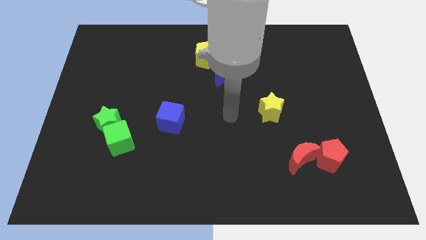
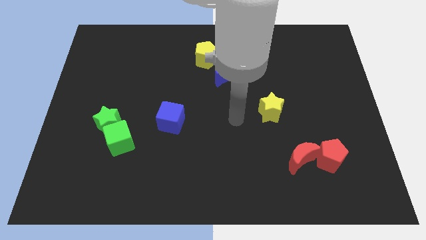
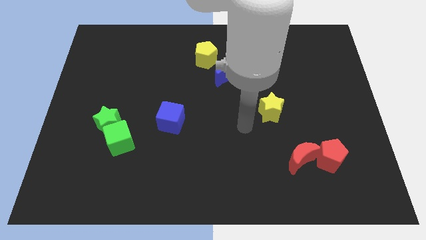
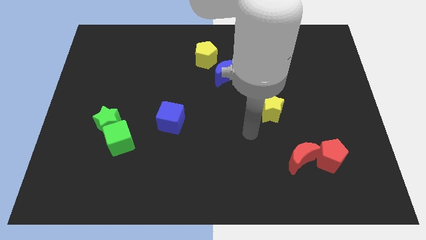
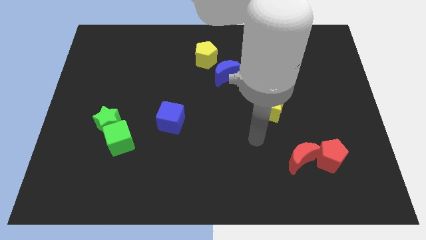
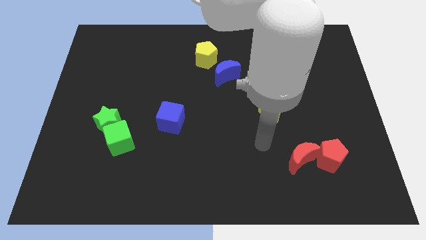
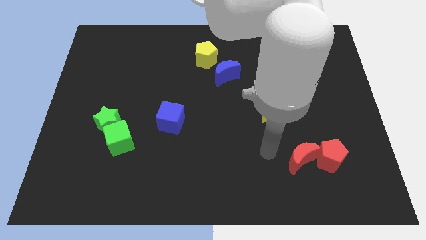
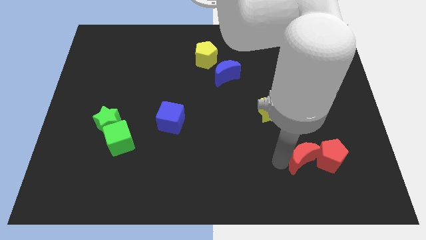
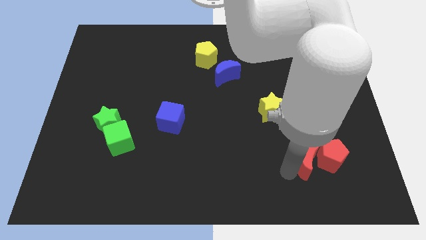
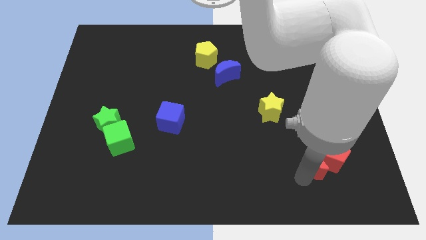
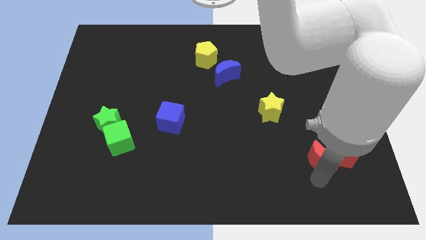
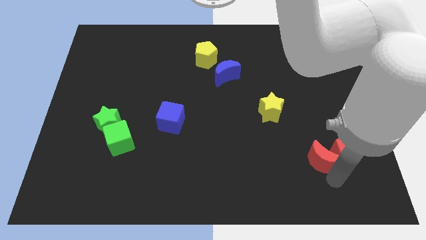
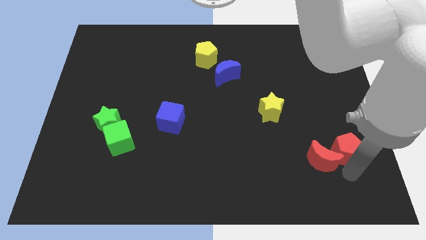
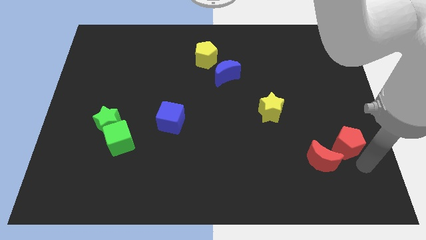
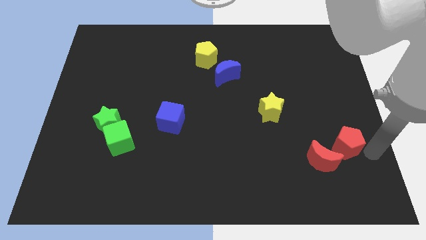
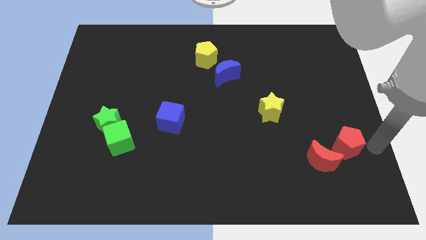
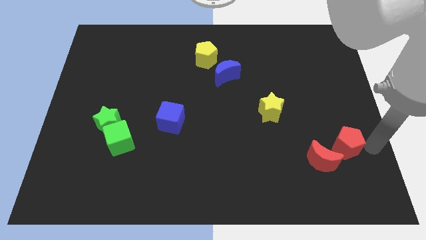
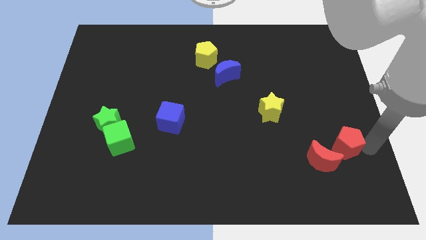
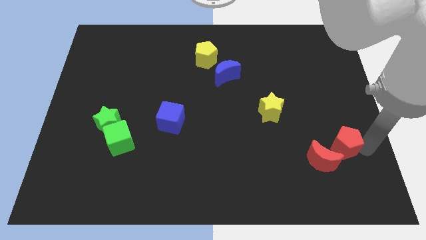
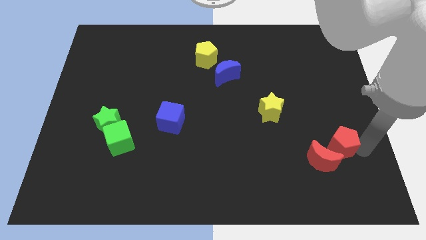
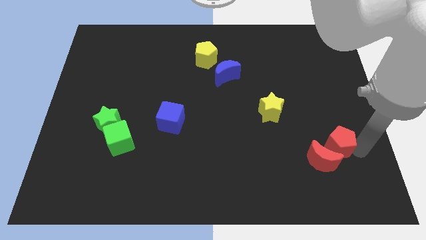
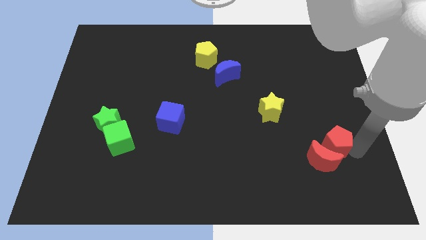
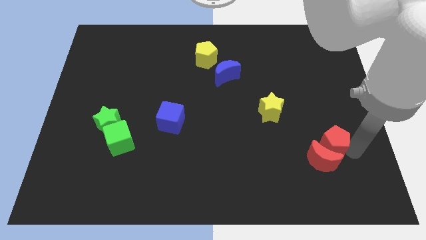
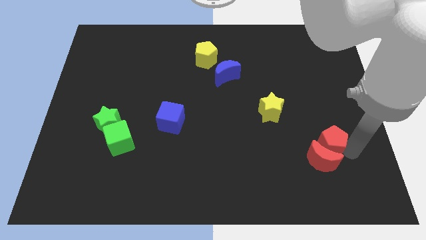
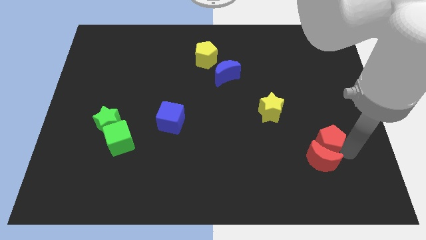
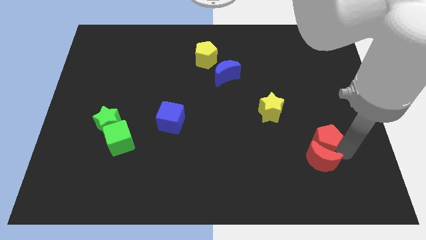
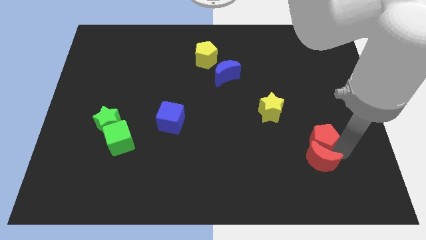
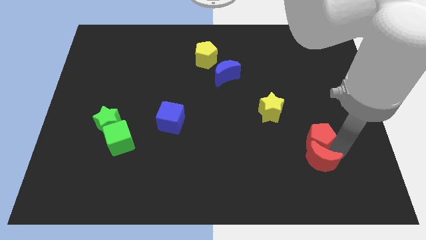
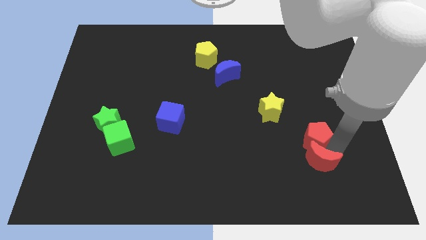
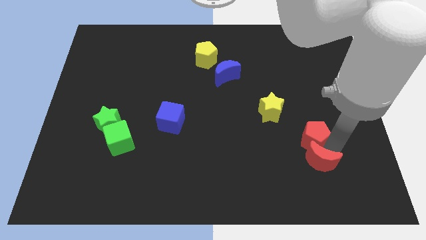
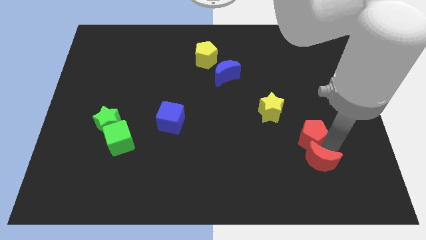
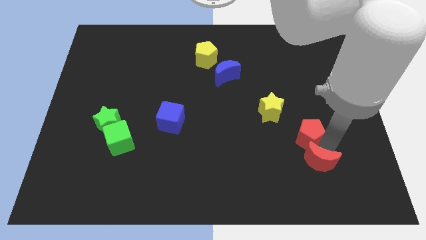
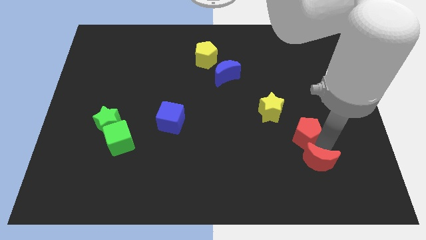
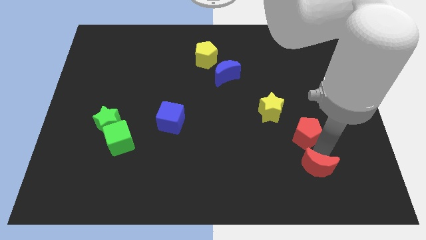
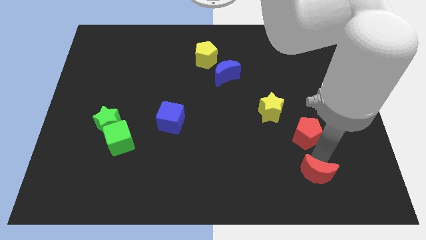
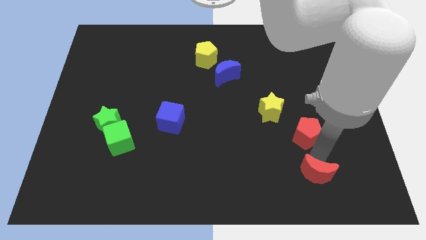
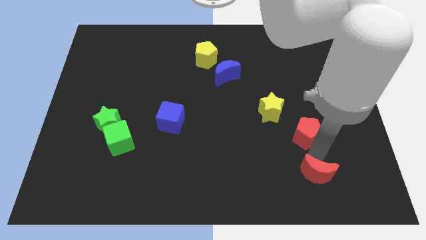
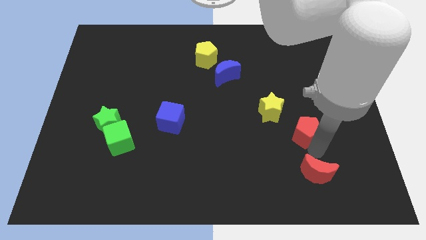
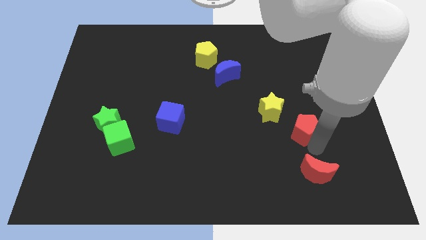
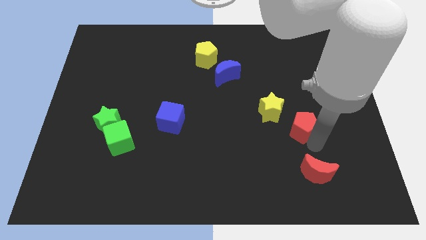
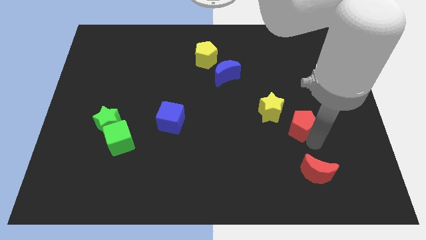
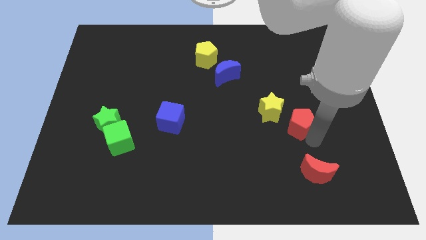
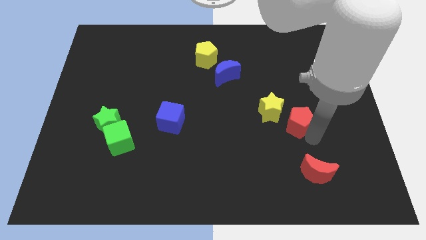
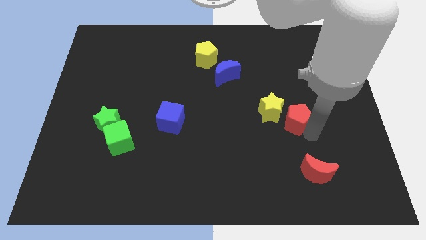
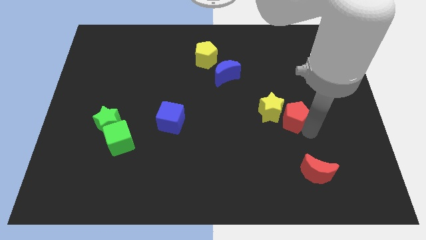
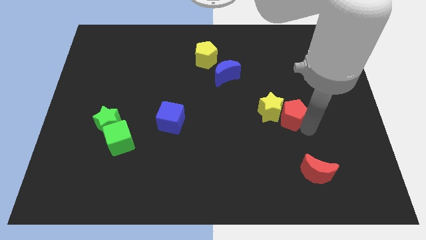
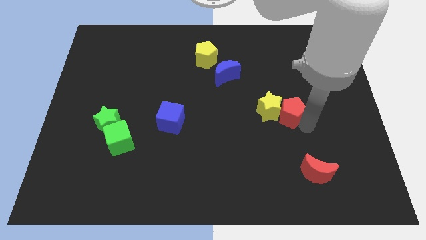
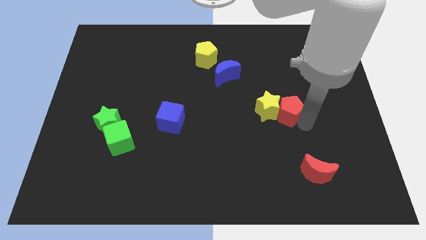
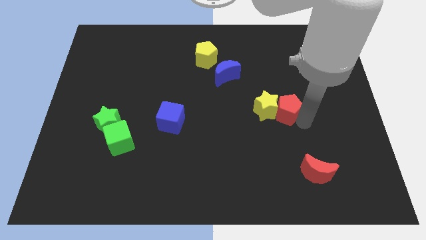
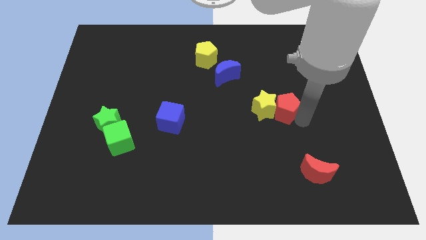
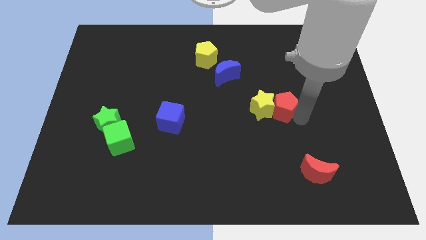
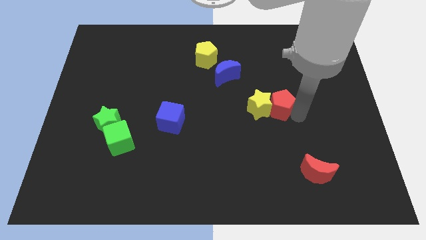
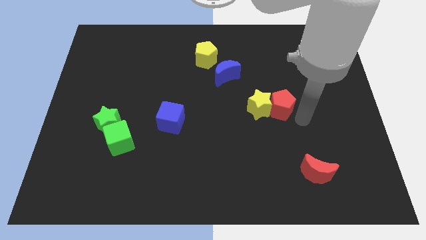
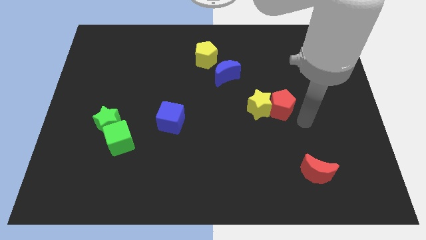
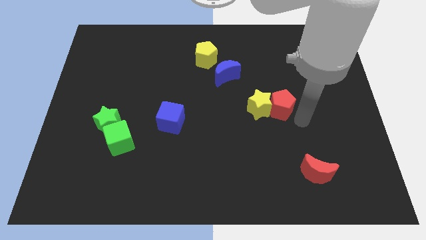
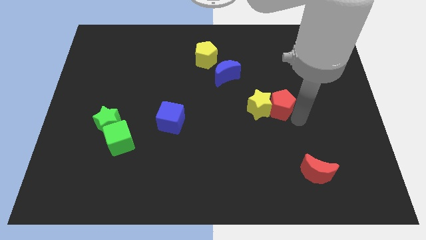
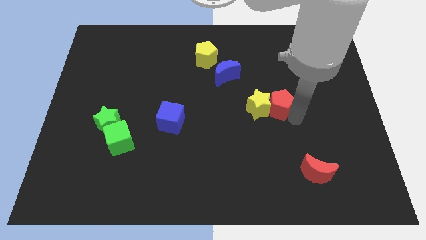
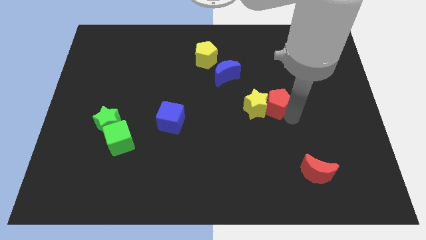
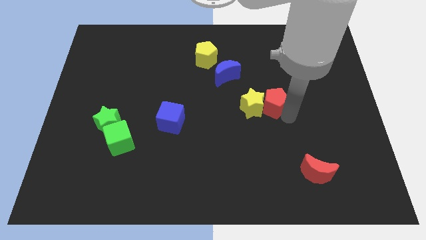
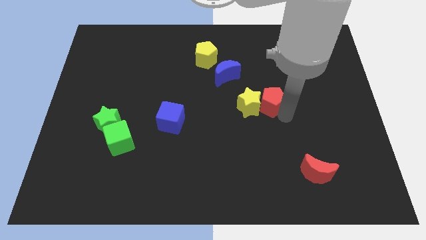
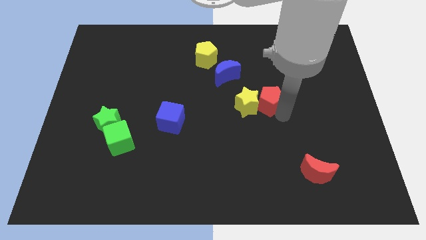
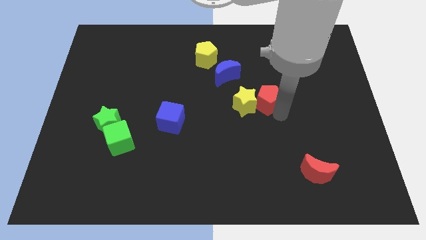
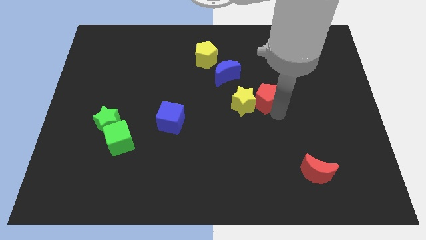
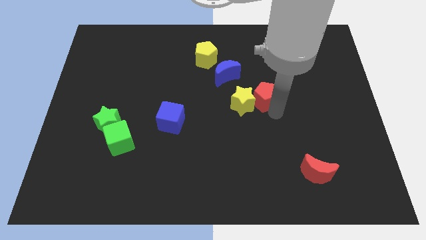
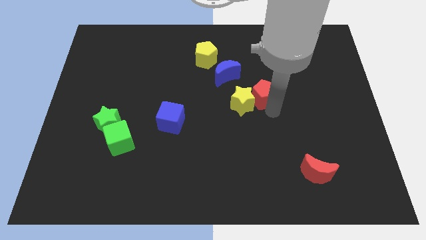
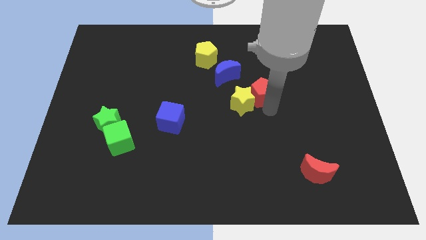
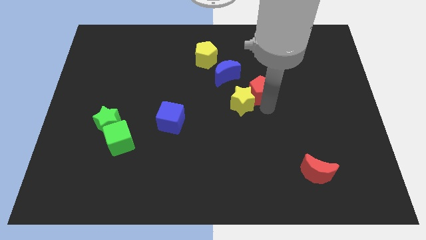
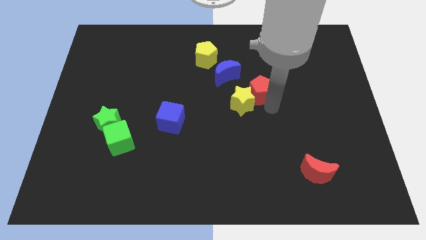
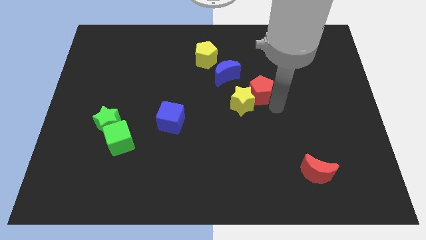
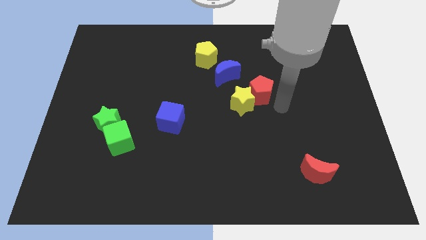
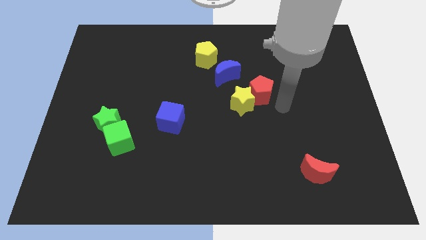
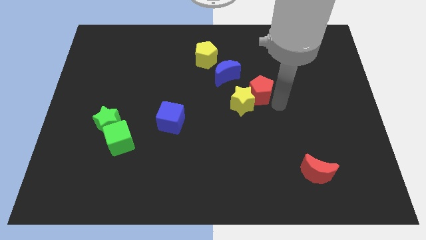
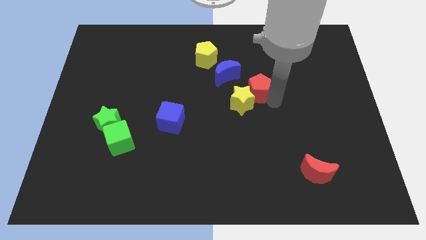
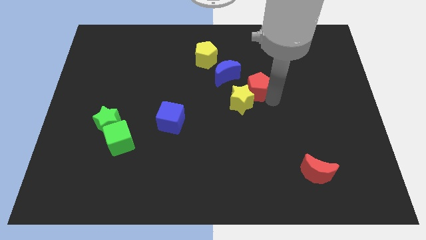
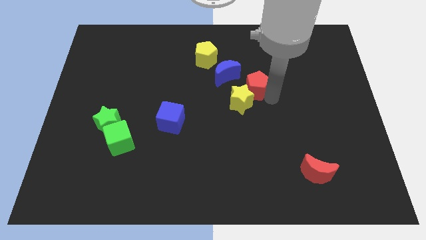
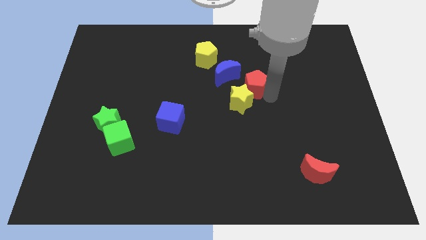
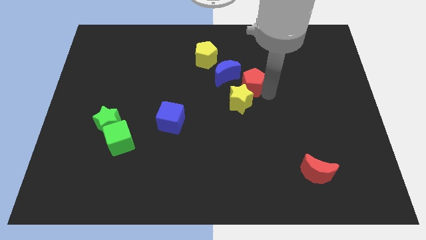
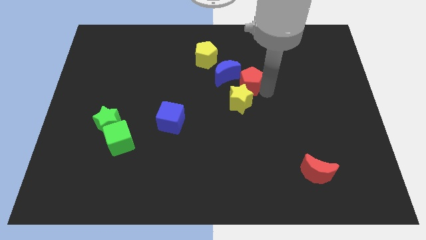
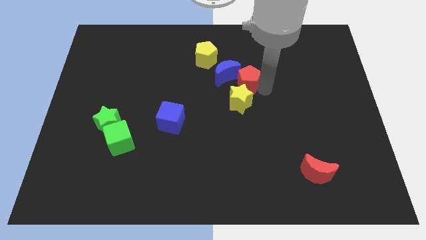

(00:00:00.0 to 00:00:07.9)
move the red pentagon close to the blue moon
